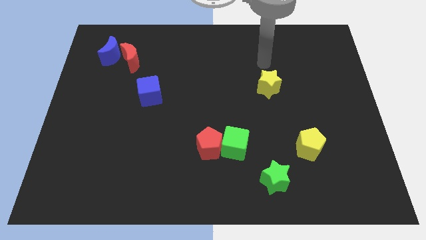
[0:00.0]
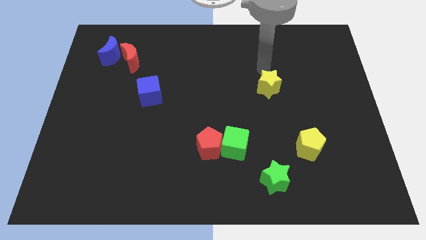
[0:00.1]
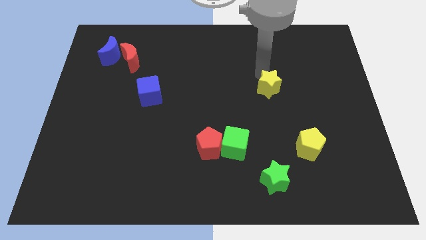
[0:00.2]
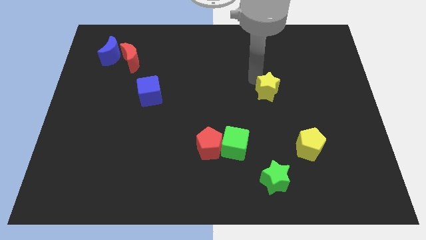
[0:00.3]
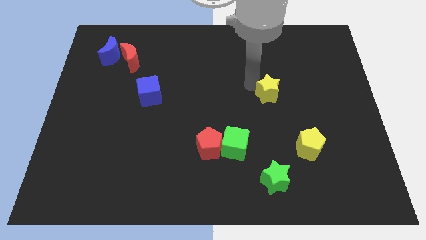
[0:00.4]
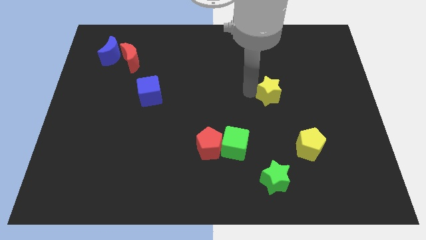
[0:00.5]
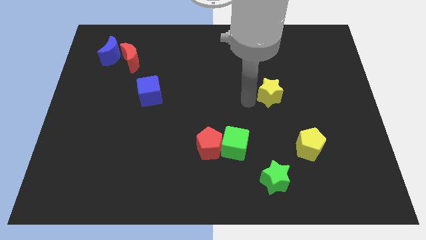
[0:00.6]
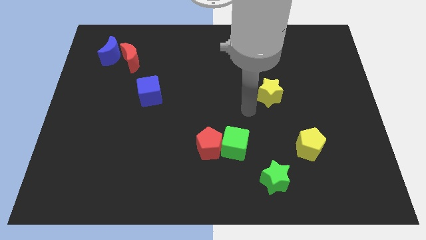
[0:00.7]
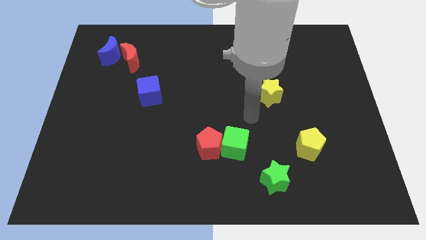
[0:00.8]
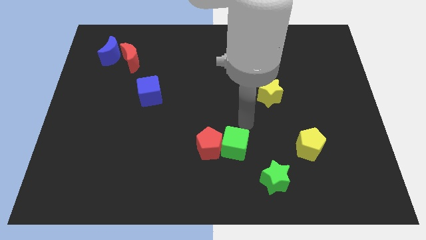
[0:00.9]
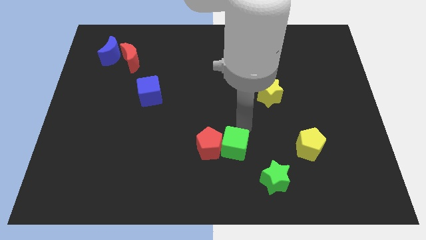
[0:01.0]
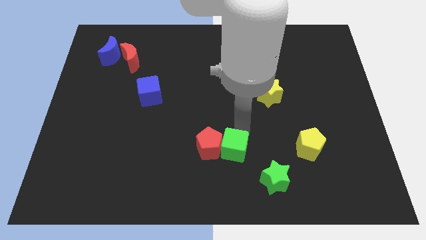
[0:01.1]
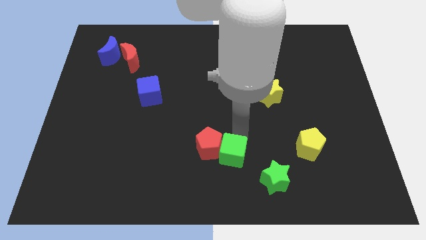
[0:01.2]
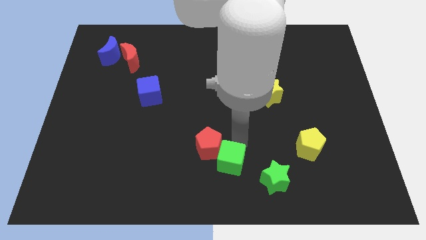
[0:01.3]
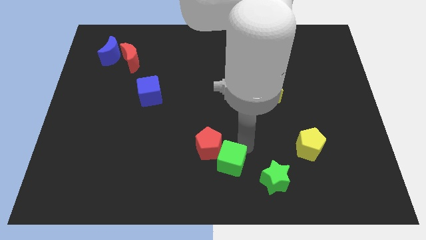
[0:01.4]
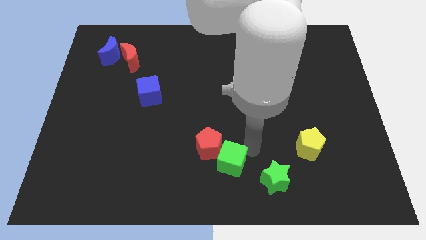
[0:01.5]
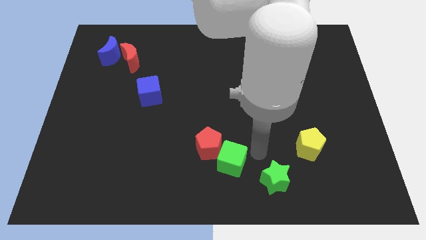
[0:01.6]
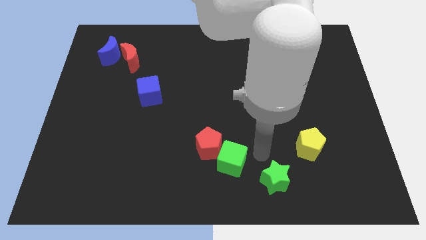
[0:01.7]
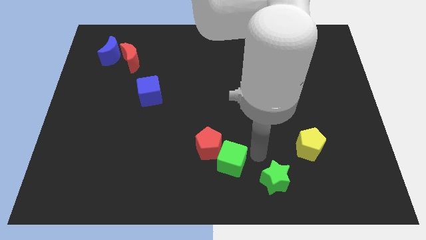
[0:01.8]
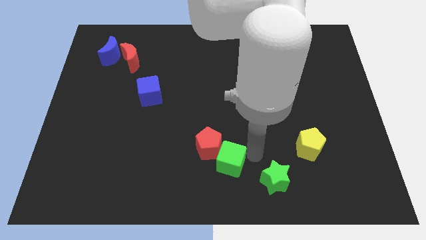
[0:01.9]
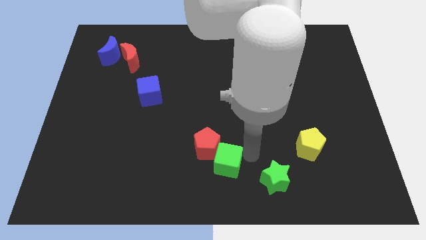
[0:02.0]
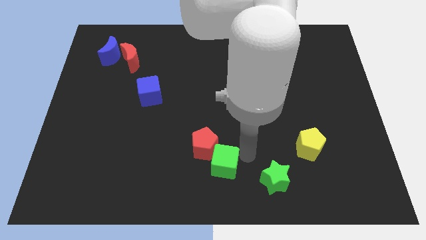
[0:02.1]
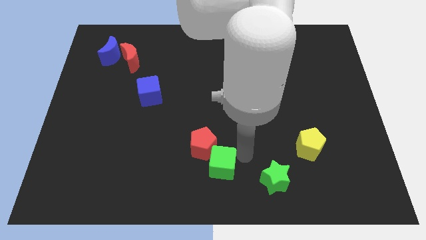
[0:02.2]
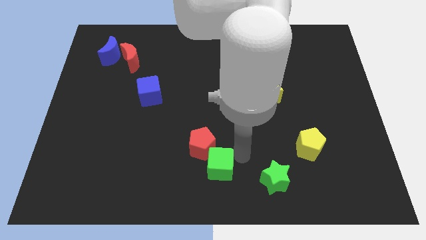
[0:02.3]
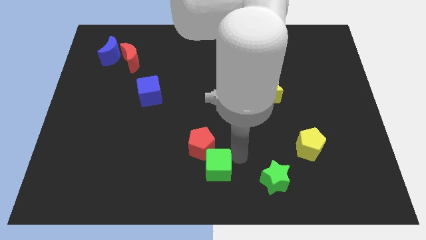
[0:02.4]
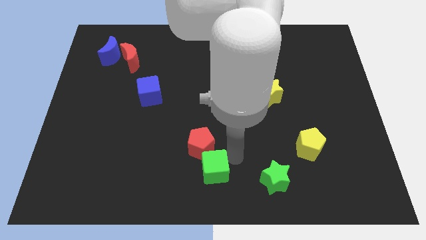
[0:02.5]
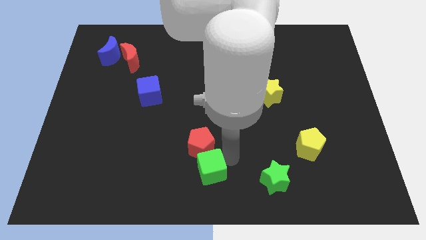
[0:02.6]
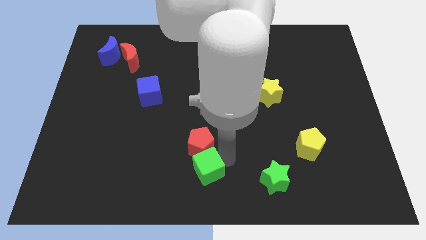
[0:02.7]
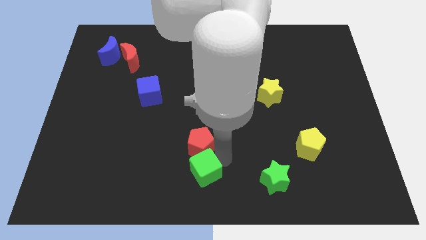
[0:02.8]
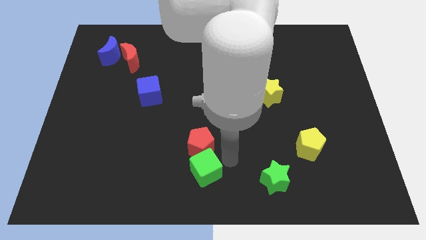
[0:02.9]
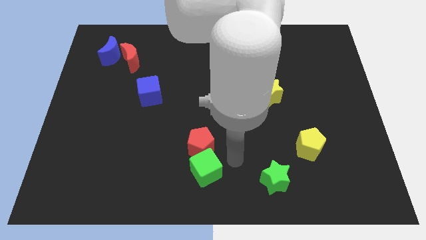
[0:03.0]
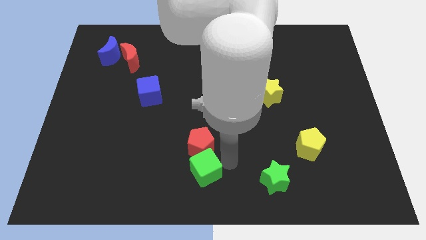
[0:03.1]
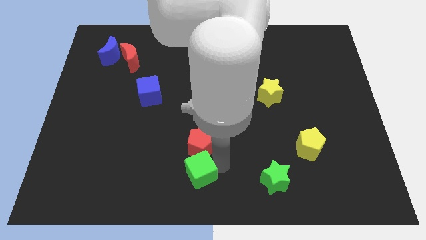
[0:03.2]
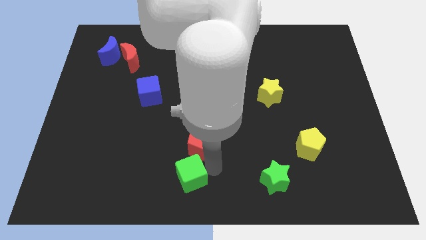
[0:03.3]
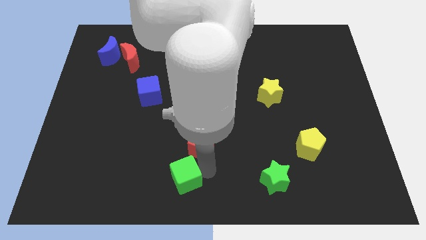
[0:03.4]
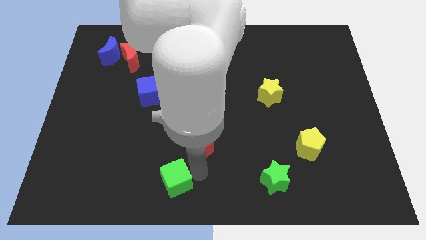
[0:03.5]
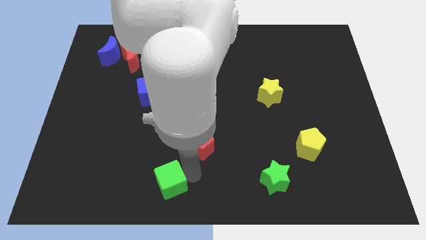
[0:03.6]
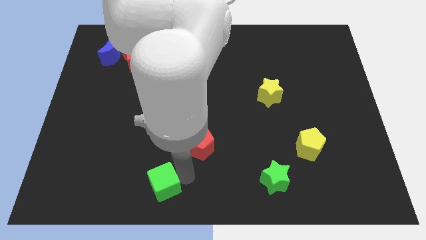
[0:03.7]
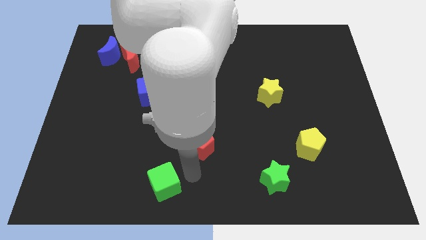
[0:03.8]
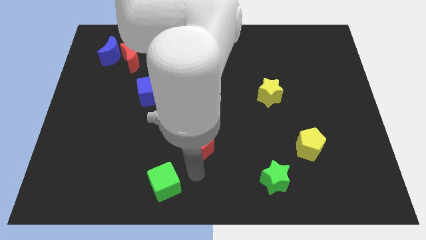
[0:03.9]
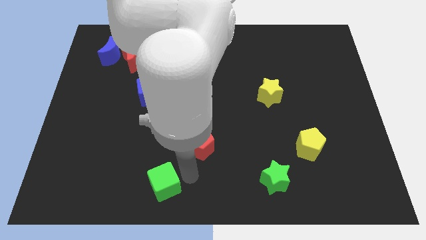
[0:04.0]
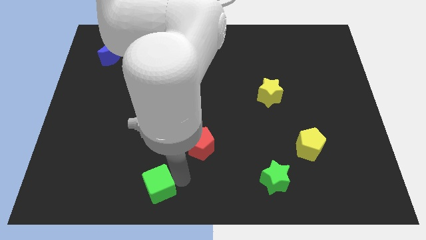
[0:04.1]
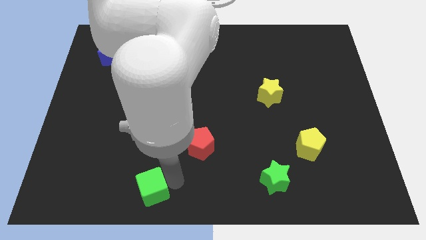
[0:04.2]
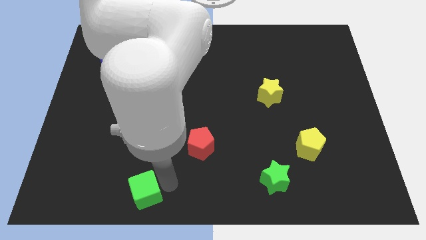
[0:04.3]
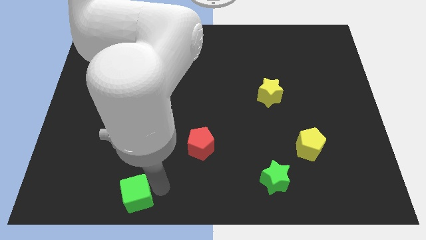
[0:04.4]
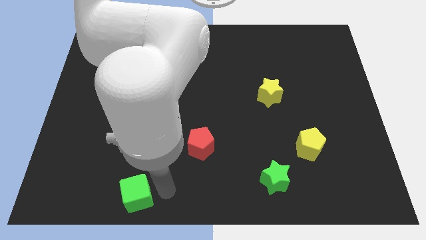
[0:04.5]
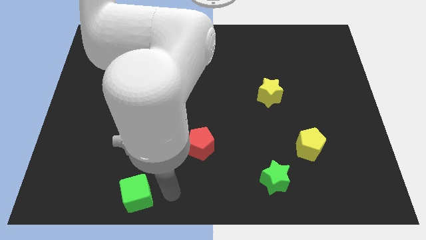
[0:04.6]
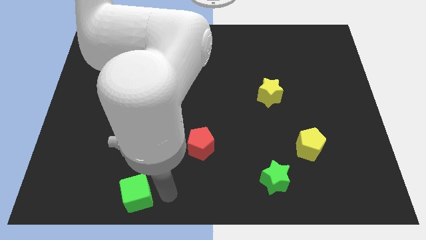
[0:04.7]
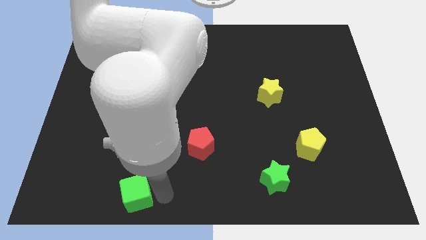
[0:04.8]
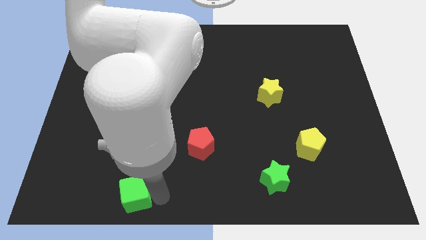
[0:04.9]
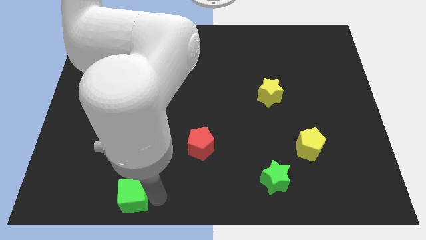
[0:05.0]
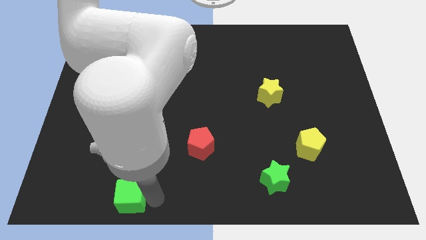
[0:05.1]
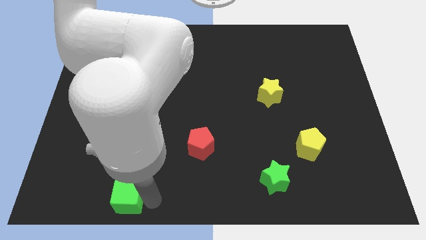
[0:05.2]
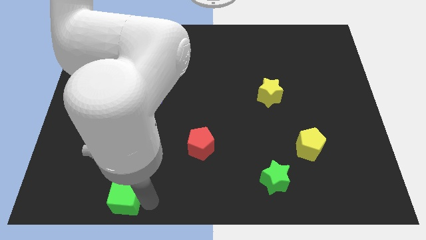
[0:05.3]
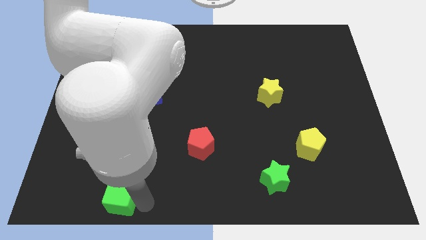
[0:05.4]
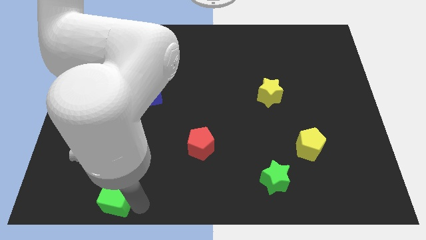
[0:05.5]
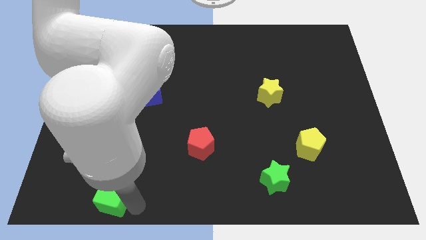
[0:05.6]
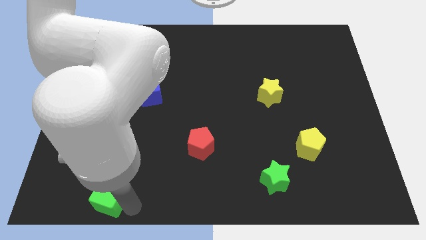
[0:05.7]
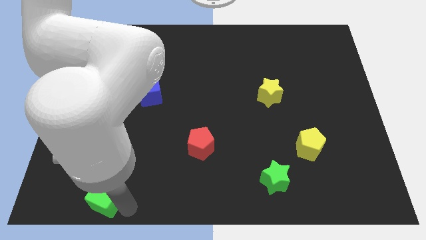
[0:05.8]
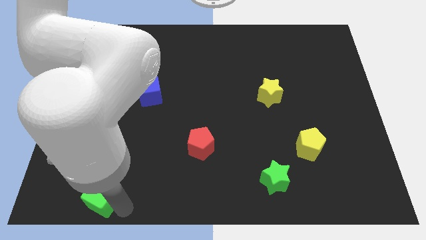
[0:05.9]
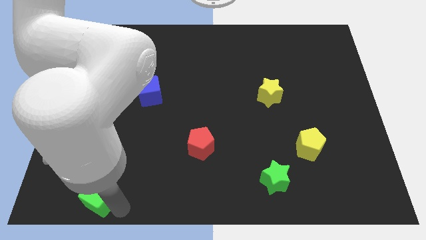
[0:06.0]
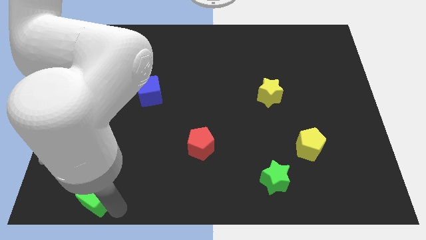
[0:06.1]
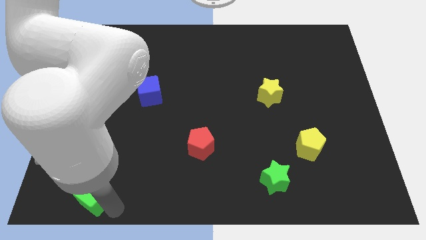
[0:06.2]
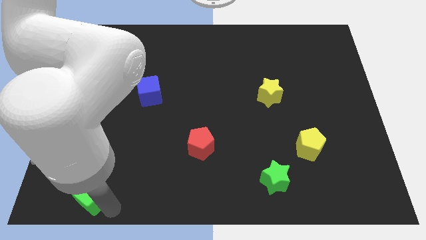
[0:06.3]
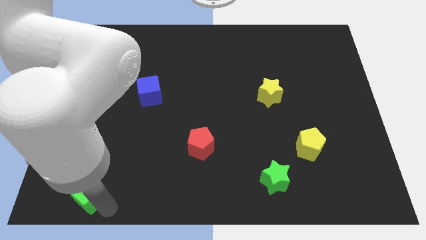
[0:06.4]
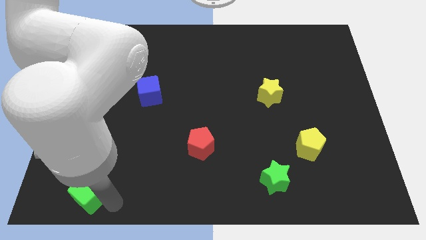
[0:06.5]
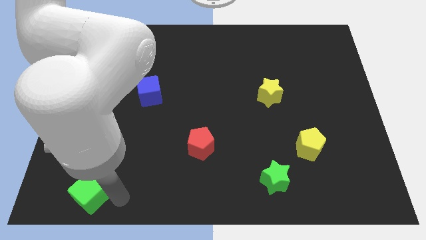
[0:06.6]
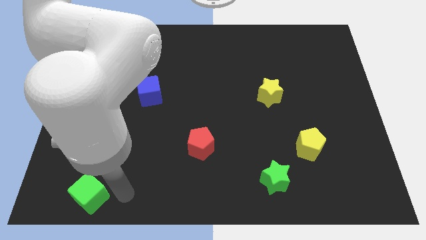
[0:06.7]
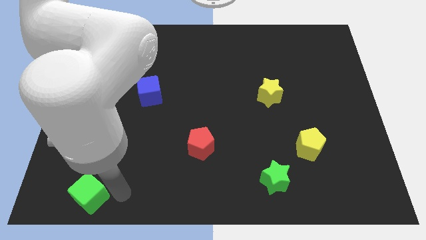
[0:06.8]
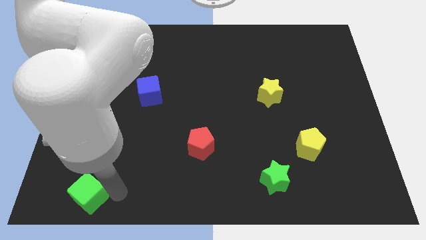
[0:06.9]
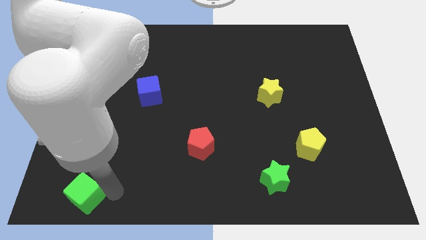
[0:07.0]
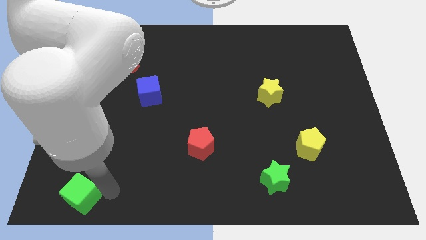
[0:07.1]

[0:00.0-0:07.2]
slide the green cube to the bottom left corner
